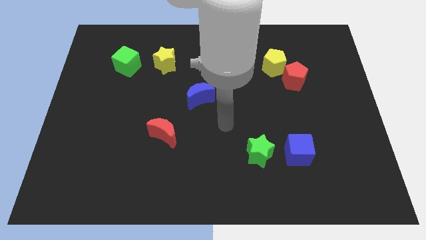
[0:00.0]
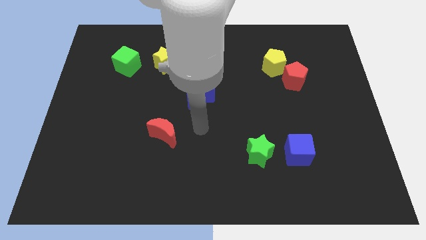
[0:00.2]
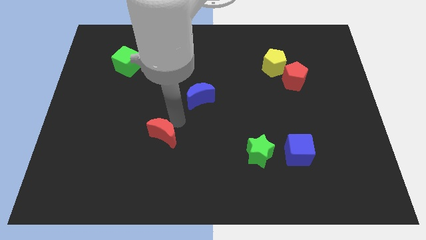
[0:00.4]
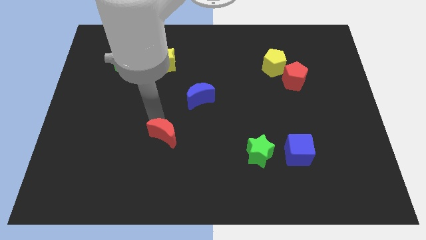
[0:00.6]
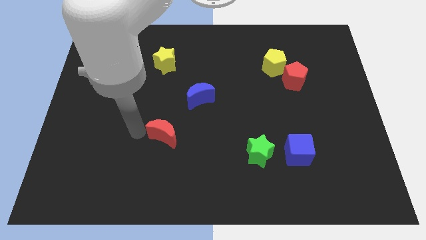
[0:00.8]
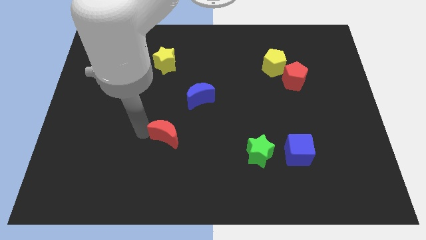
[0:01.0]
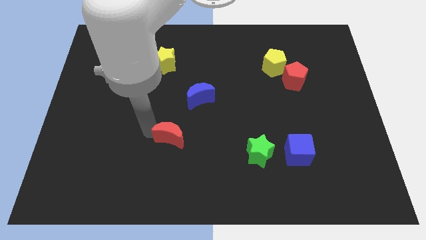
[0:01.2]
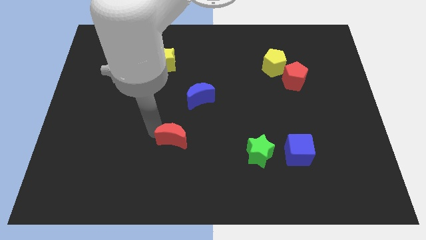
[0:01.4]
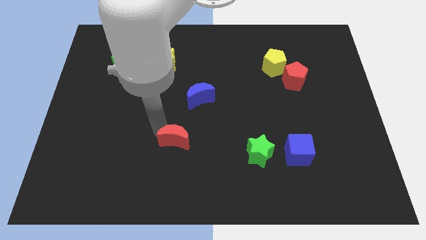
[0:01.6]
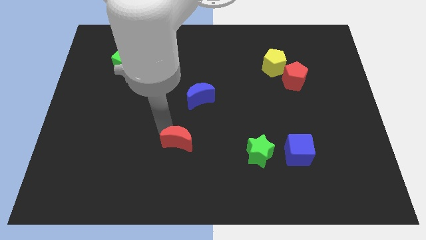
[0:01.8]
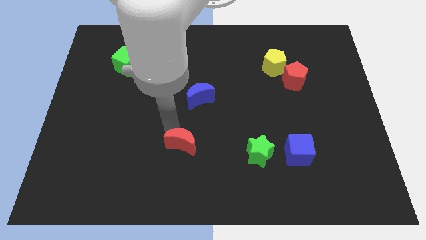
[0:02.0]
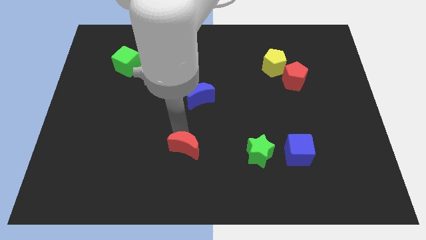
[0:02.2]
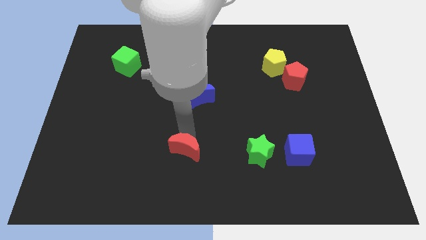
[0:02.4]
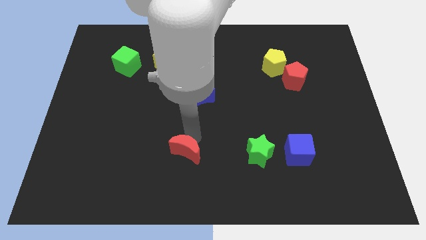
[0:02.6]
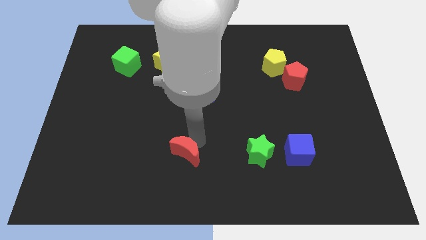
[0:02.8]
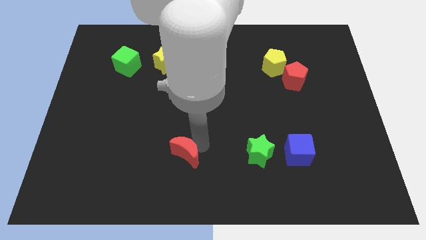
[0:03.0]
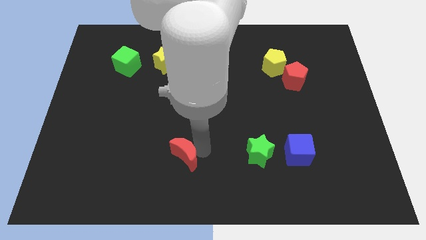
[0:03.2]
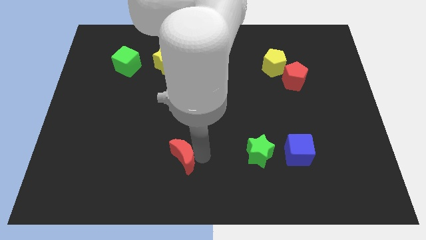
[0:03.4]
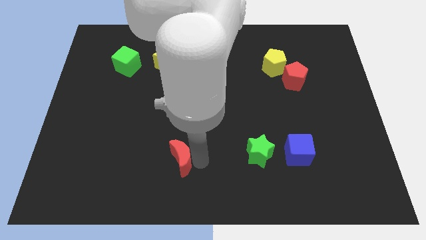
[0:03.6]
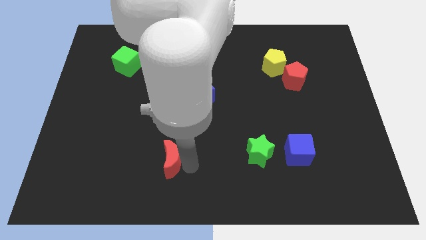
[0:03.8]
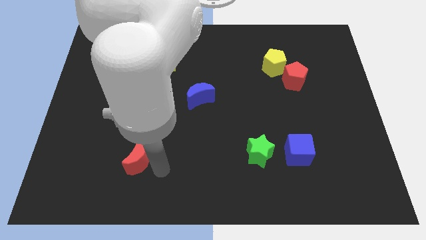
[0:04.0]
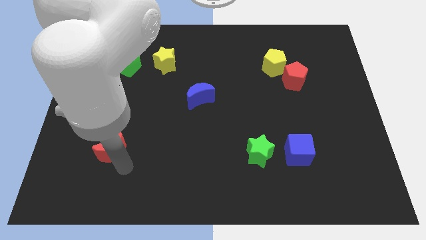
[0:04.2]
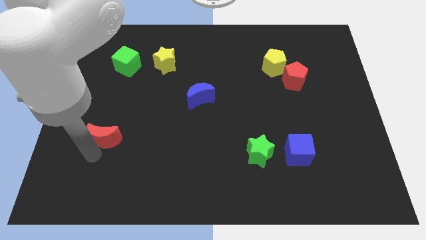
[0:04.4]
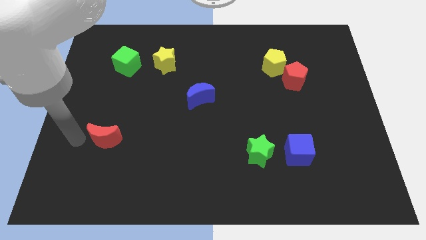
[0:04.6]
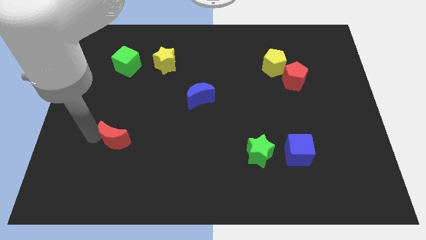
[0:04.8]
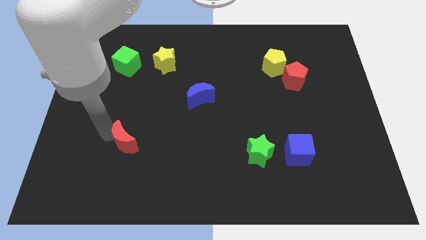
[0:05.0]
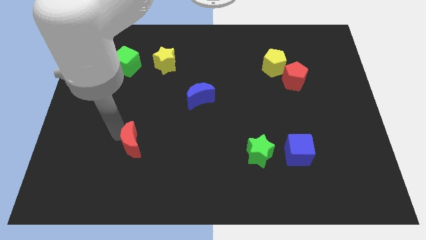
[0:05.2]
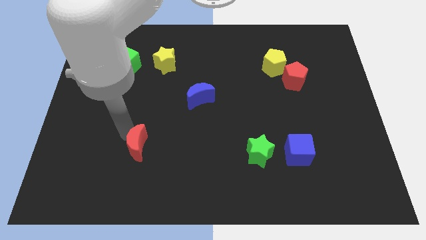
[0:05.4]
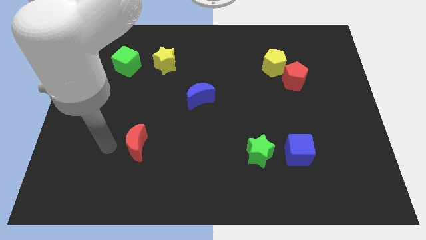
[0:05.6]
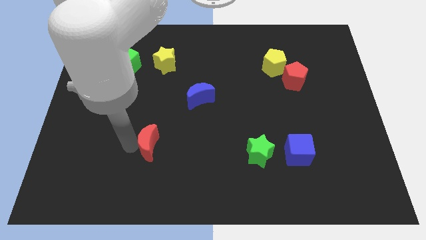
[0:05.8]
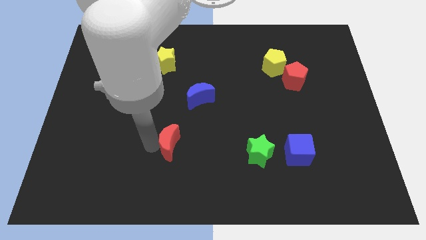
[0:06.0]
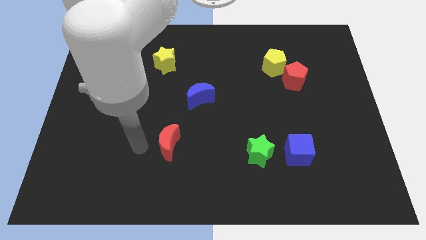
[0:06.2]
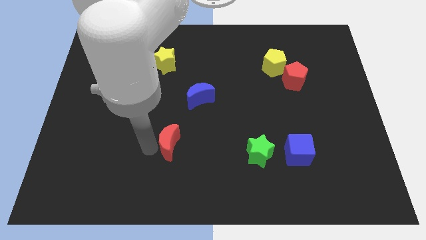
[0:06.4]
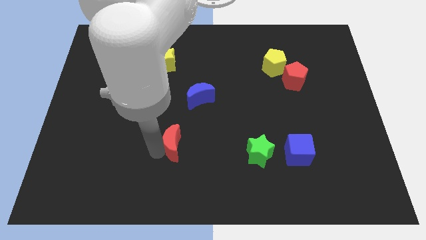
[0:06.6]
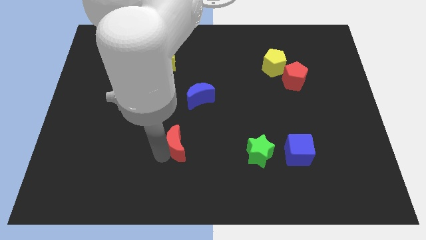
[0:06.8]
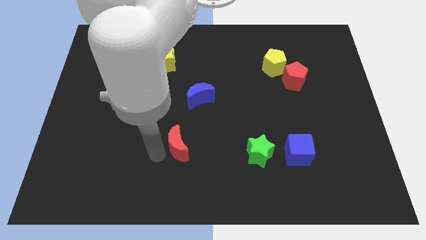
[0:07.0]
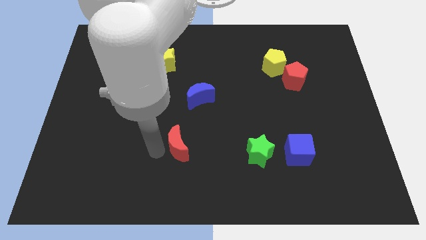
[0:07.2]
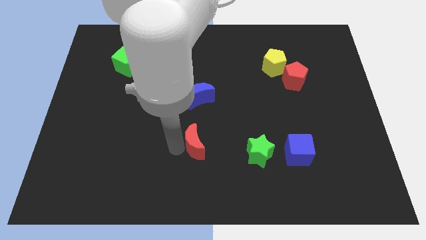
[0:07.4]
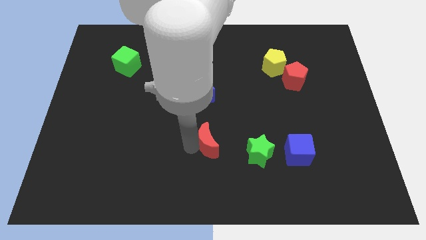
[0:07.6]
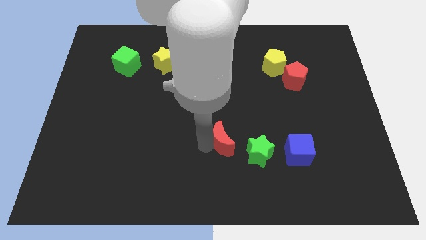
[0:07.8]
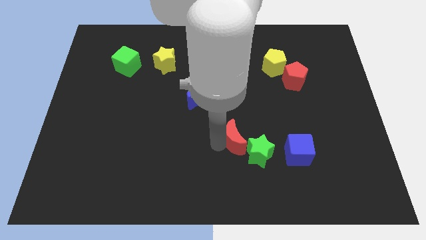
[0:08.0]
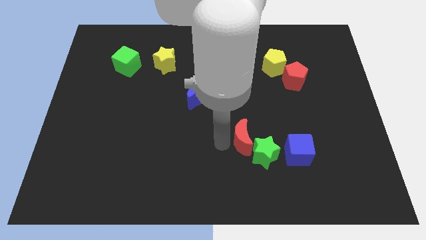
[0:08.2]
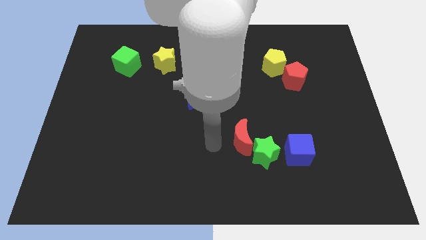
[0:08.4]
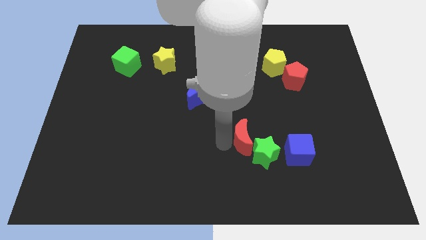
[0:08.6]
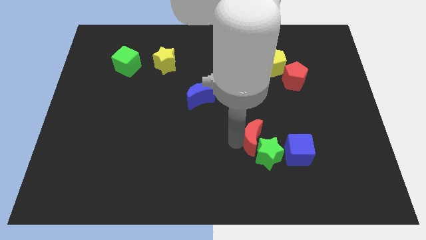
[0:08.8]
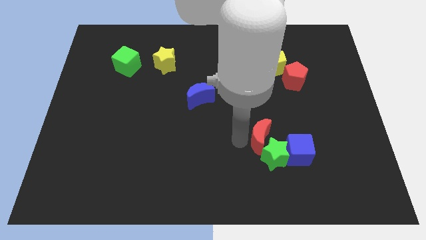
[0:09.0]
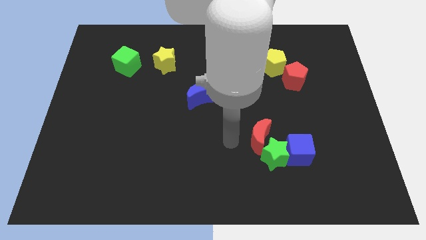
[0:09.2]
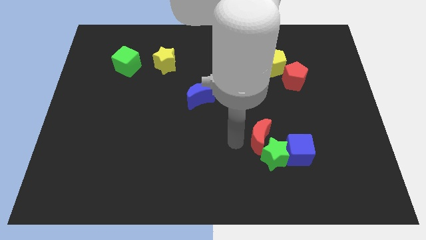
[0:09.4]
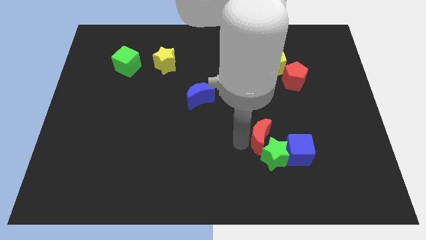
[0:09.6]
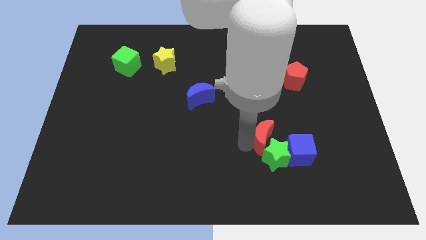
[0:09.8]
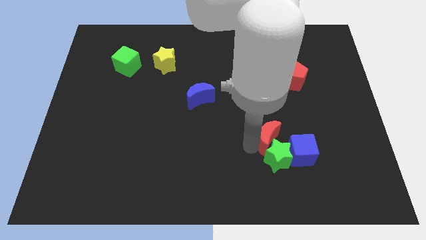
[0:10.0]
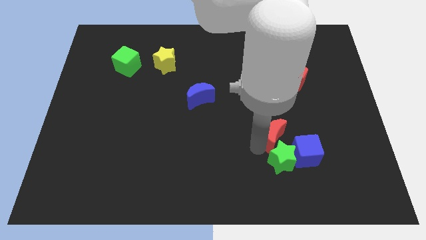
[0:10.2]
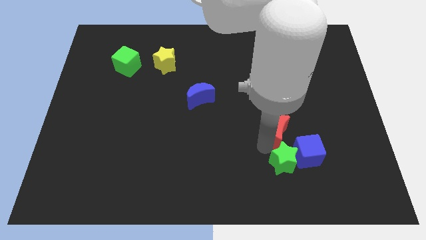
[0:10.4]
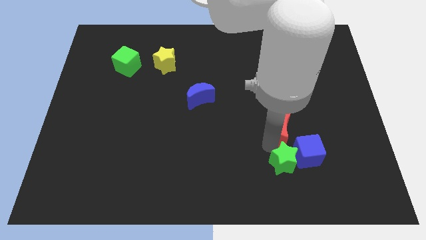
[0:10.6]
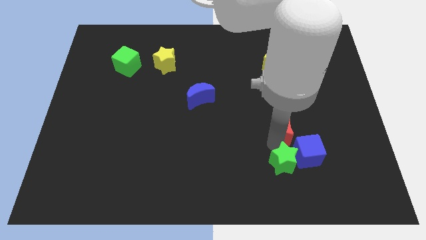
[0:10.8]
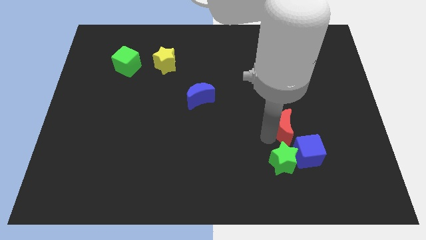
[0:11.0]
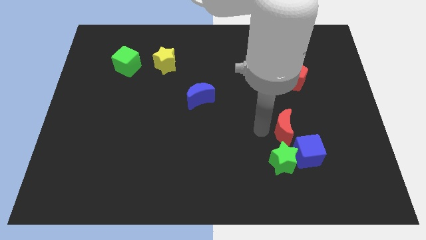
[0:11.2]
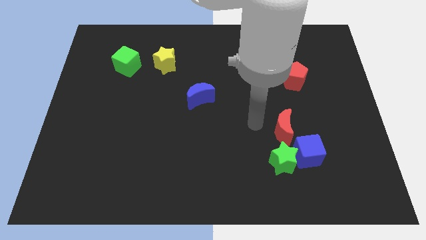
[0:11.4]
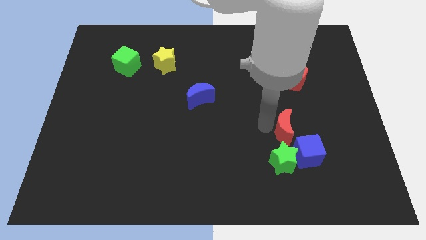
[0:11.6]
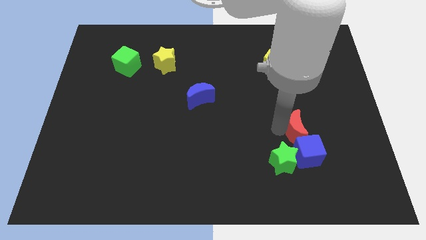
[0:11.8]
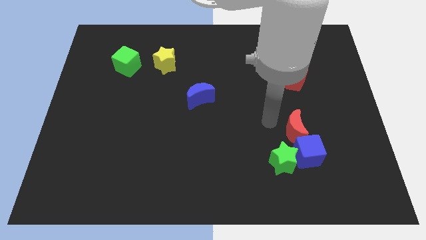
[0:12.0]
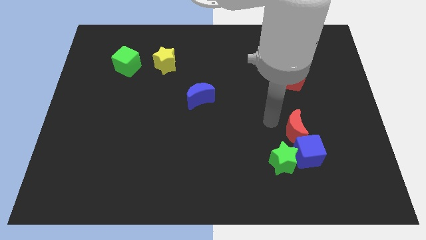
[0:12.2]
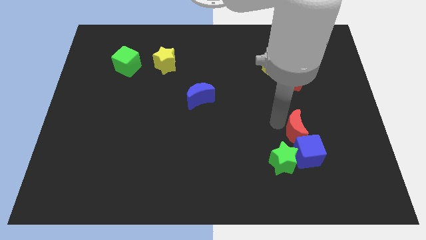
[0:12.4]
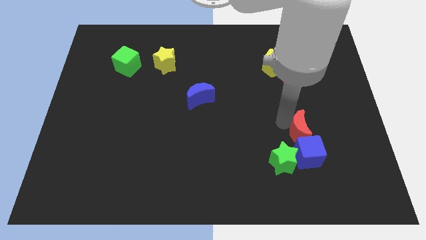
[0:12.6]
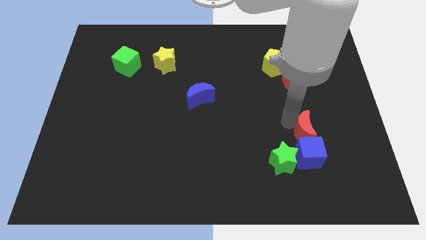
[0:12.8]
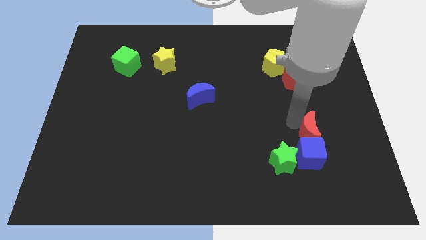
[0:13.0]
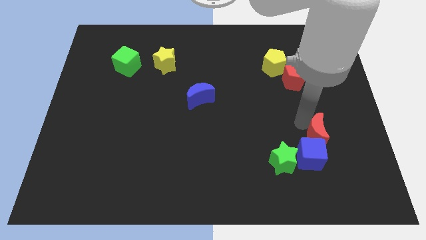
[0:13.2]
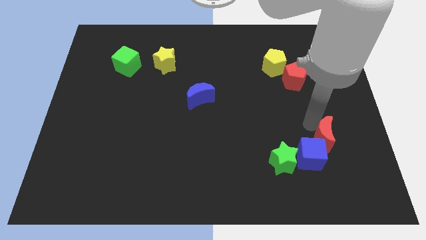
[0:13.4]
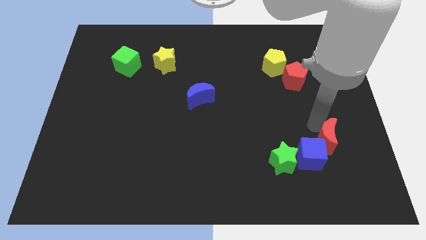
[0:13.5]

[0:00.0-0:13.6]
slide the red moon just right of the blue cube
